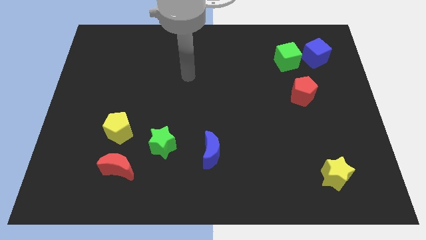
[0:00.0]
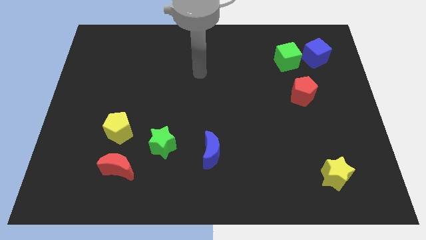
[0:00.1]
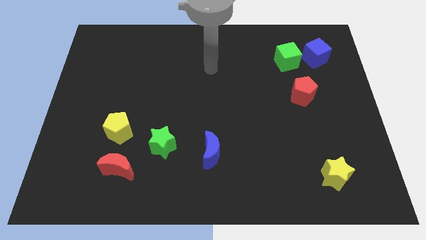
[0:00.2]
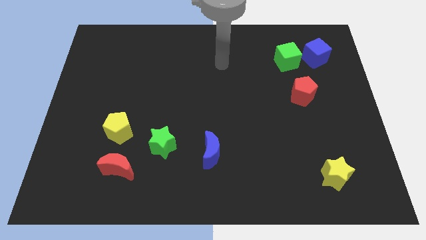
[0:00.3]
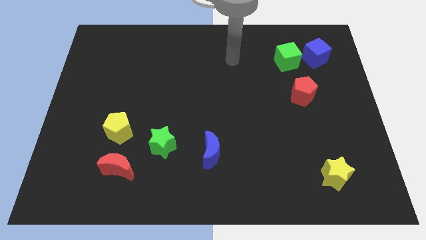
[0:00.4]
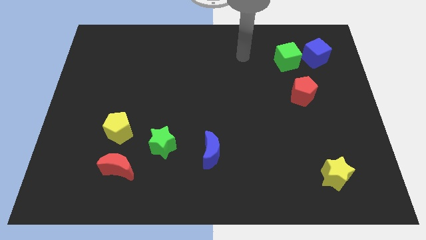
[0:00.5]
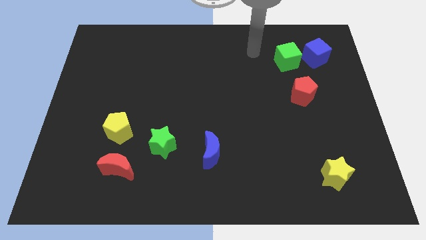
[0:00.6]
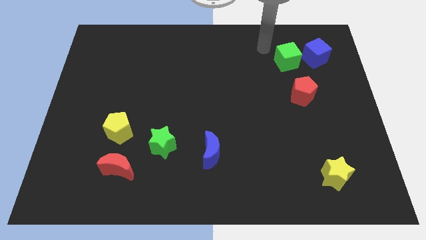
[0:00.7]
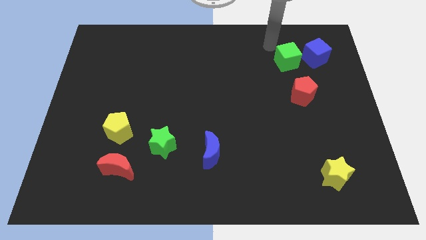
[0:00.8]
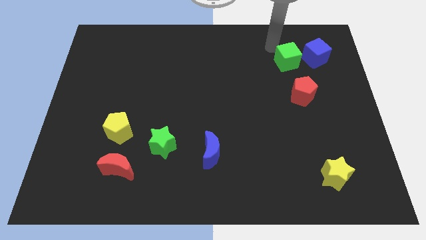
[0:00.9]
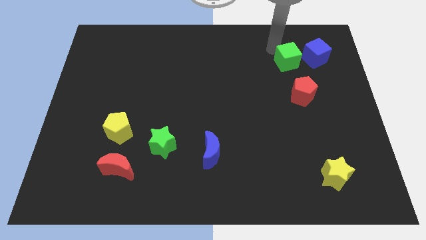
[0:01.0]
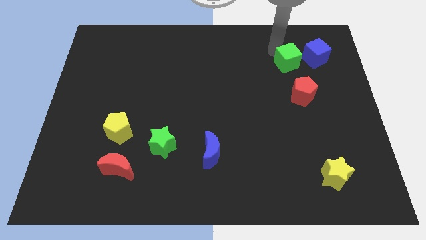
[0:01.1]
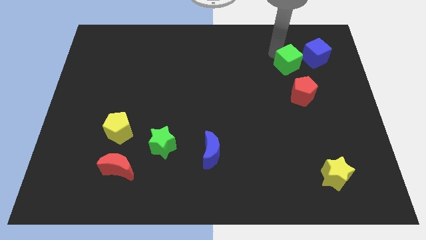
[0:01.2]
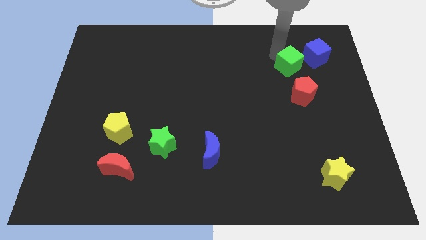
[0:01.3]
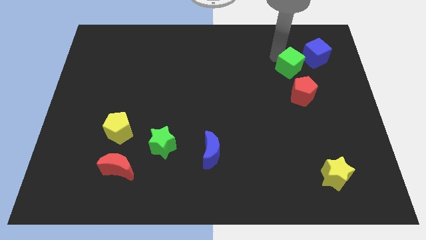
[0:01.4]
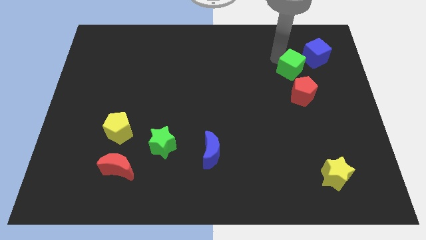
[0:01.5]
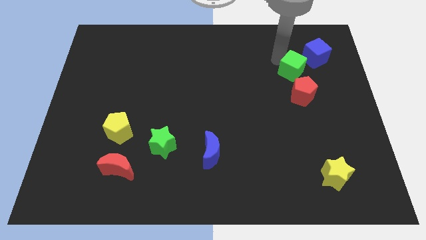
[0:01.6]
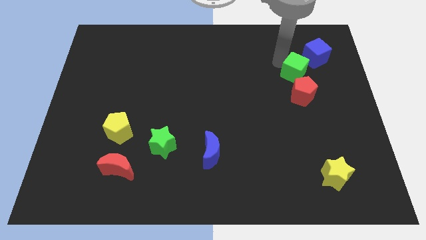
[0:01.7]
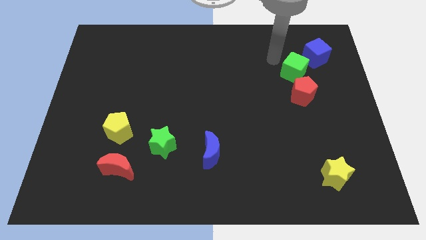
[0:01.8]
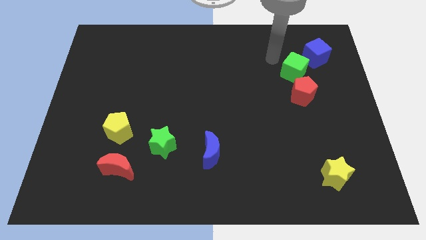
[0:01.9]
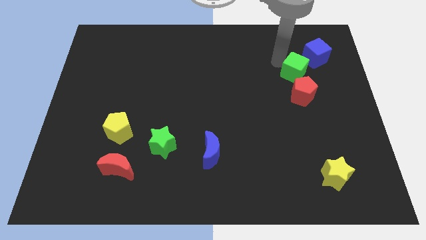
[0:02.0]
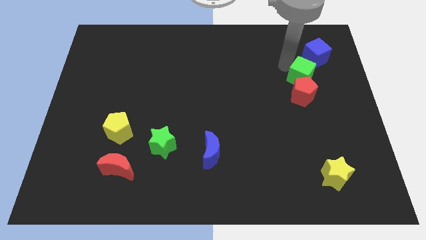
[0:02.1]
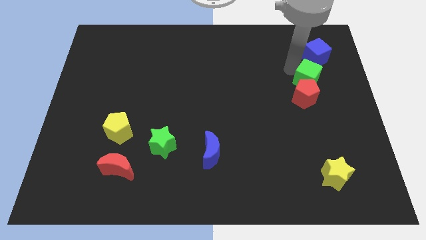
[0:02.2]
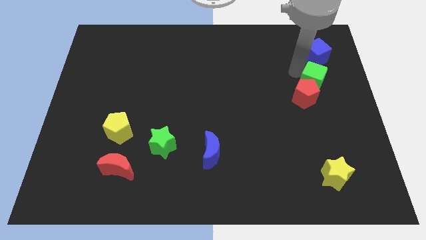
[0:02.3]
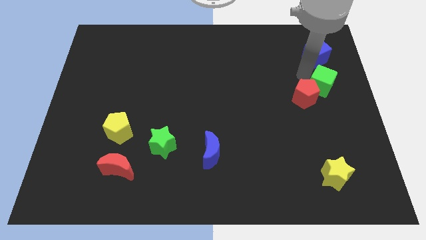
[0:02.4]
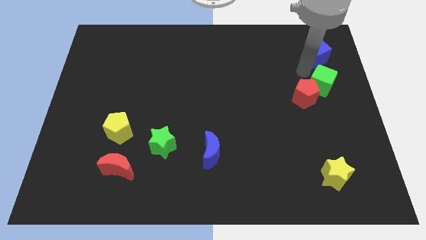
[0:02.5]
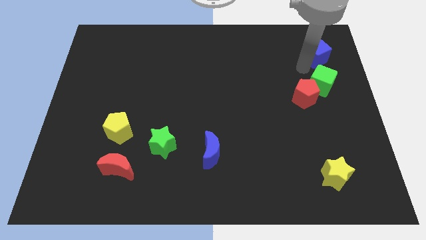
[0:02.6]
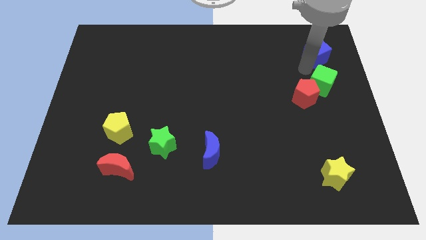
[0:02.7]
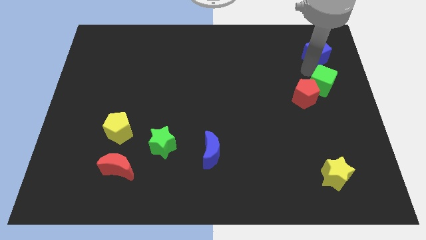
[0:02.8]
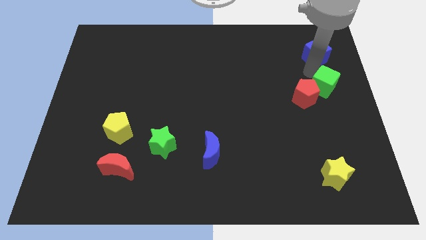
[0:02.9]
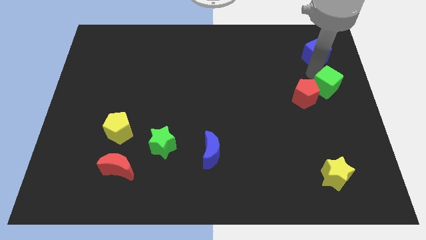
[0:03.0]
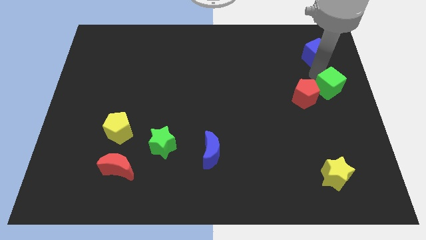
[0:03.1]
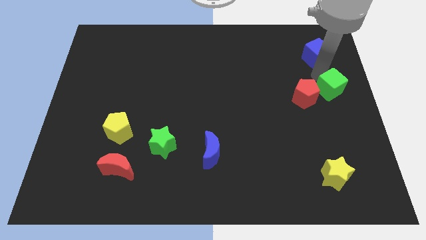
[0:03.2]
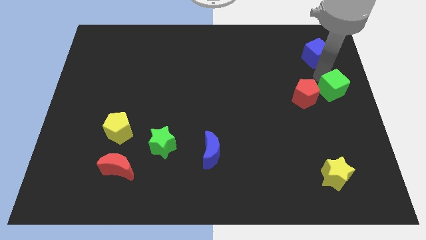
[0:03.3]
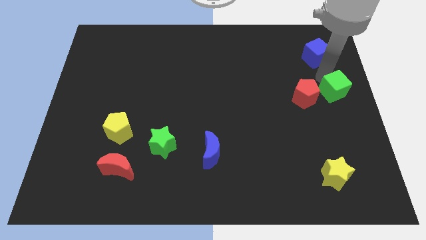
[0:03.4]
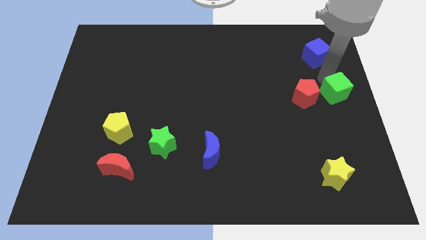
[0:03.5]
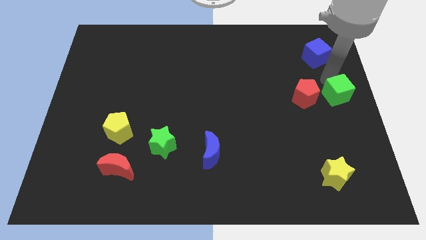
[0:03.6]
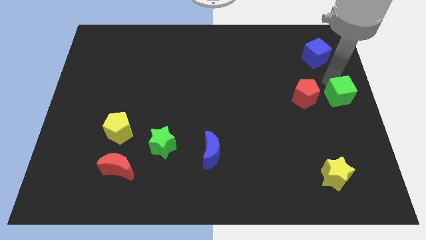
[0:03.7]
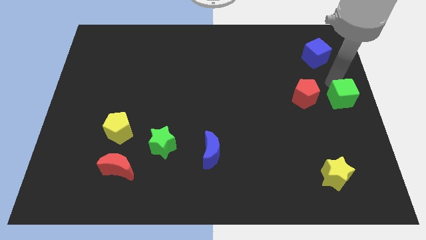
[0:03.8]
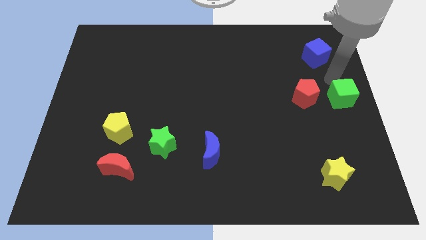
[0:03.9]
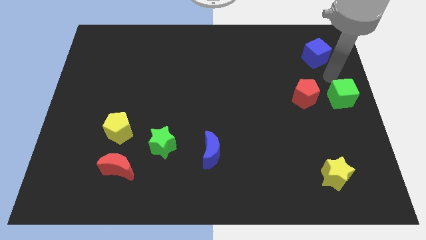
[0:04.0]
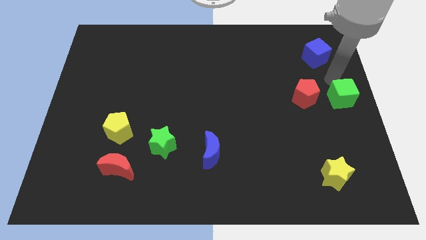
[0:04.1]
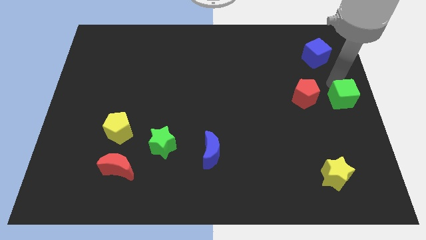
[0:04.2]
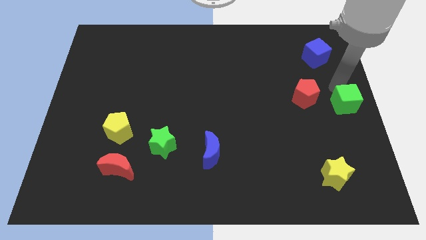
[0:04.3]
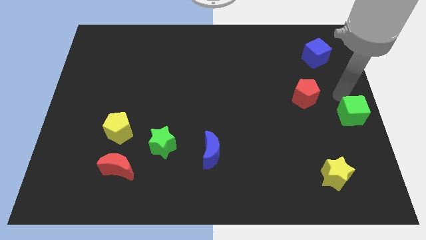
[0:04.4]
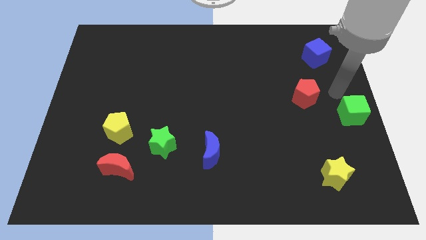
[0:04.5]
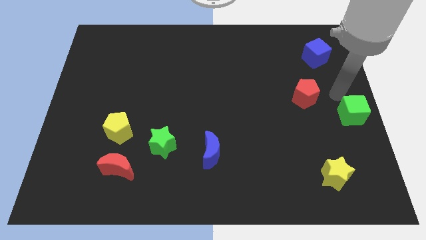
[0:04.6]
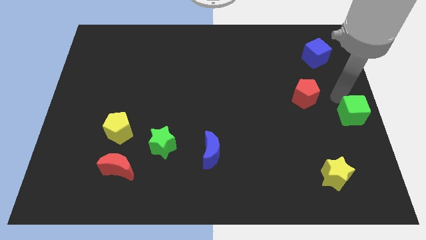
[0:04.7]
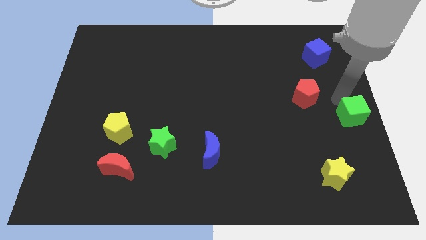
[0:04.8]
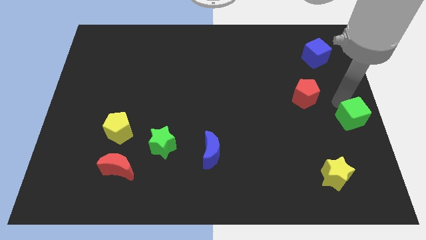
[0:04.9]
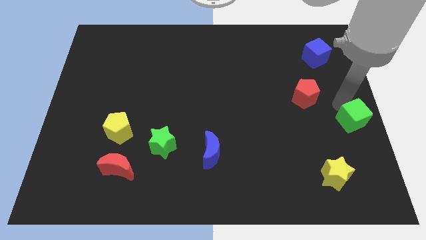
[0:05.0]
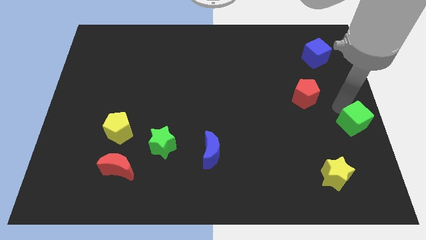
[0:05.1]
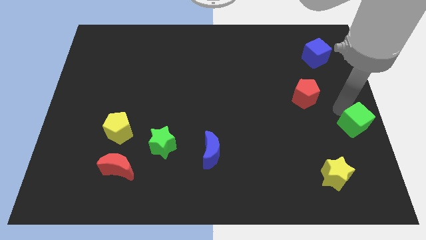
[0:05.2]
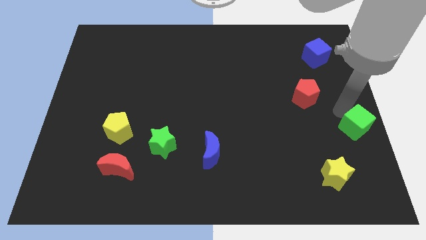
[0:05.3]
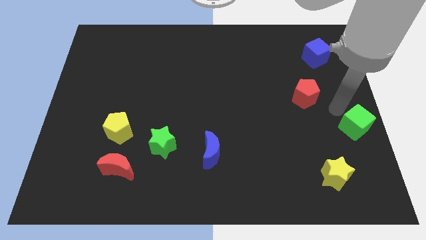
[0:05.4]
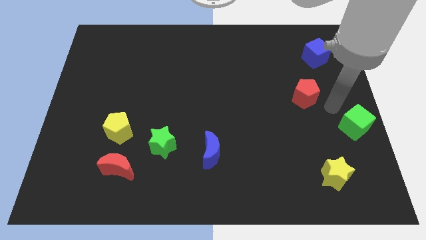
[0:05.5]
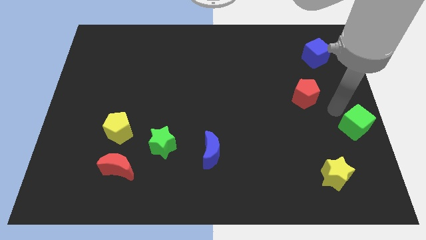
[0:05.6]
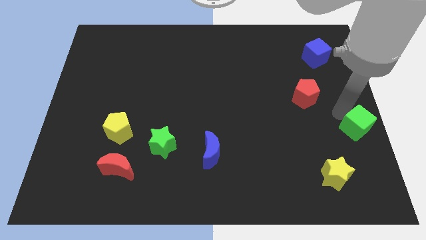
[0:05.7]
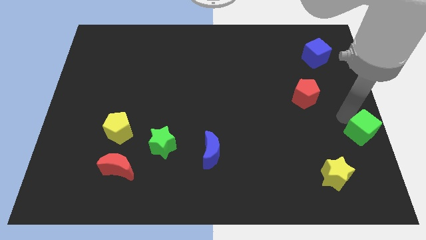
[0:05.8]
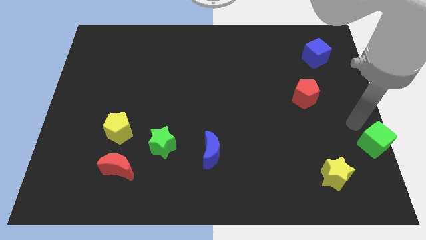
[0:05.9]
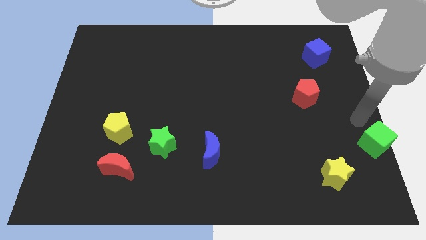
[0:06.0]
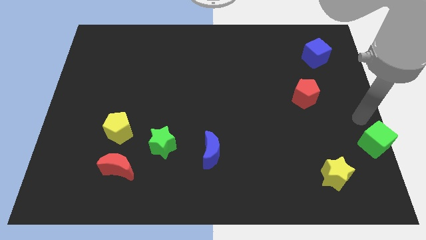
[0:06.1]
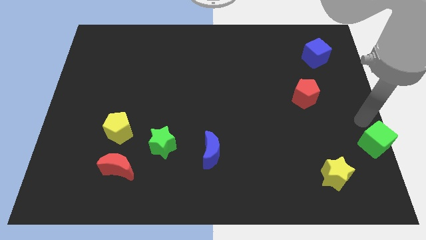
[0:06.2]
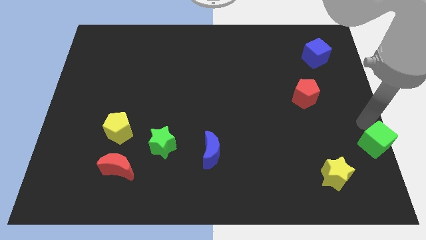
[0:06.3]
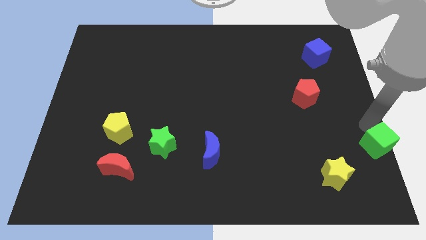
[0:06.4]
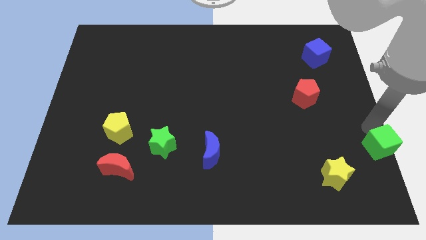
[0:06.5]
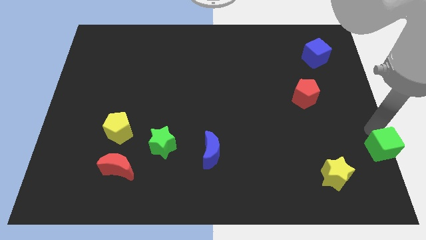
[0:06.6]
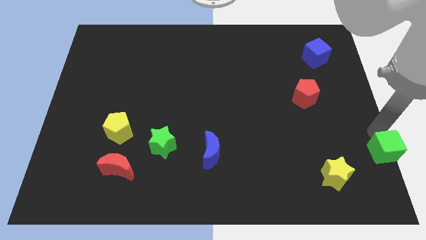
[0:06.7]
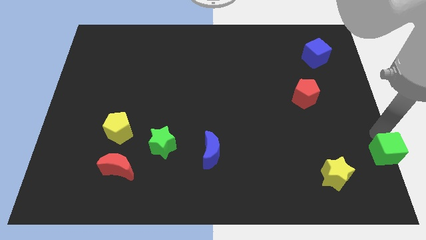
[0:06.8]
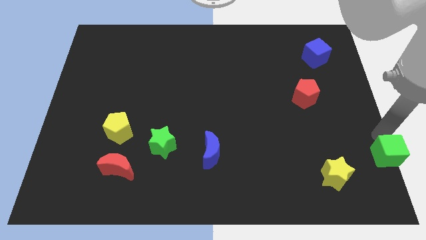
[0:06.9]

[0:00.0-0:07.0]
slide the green cube to the bottom right of the board
